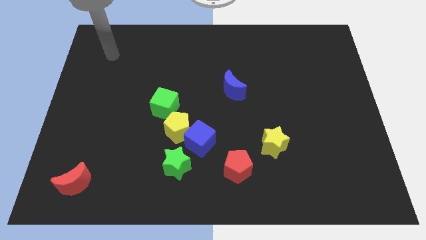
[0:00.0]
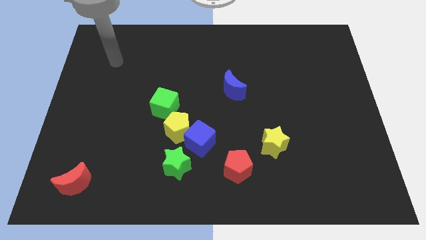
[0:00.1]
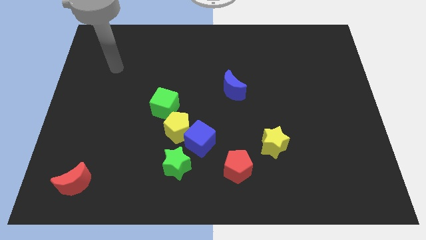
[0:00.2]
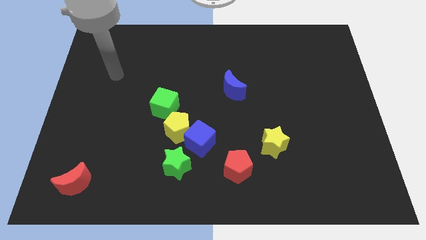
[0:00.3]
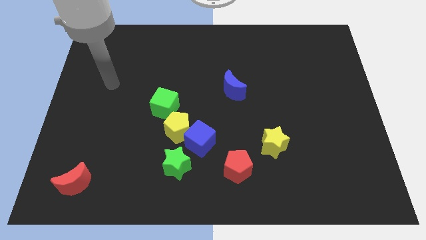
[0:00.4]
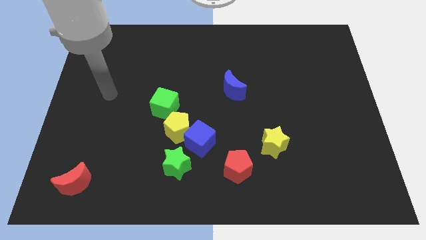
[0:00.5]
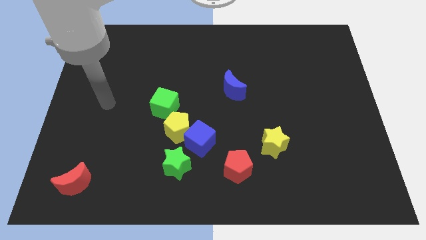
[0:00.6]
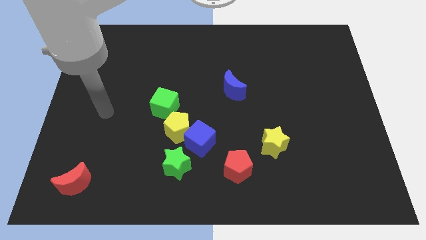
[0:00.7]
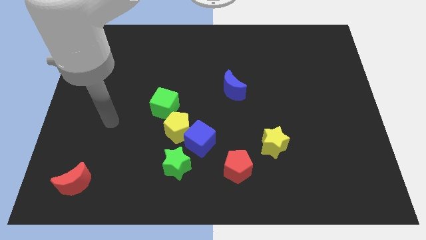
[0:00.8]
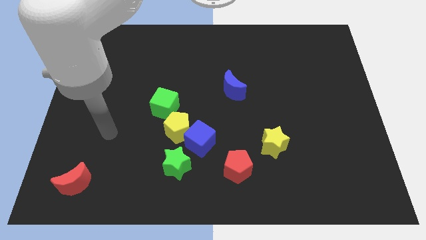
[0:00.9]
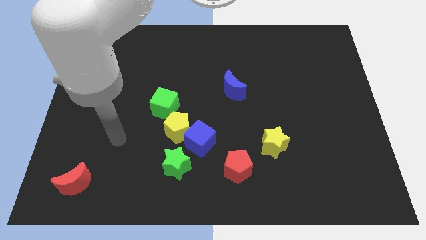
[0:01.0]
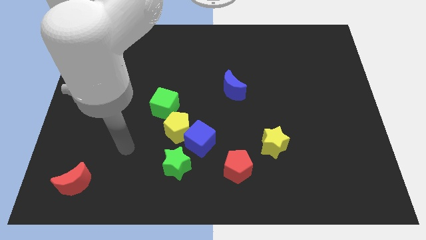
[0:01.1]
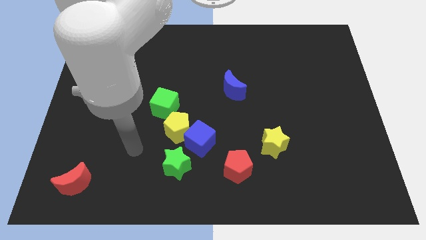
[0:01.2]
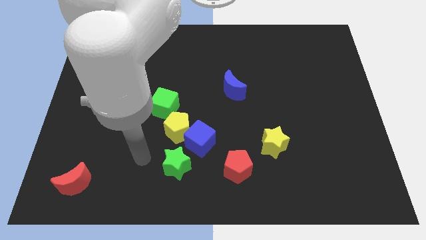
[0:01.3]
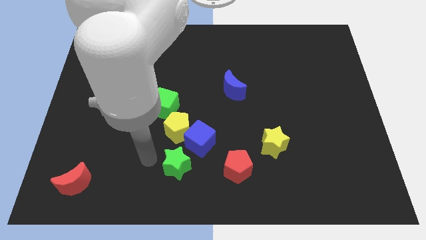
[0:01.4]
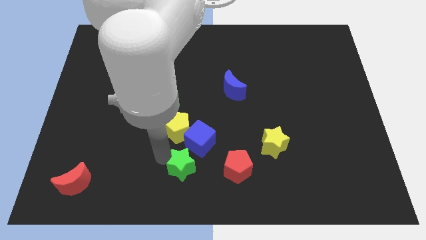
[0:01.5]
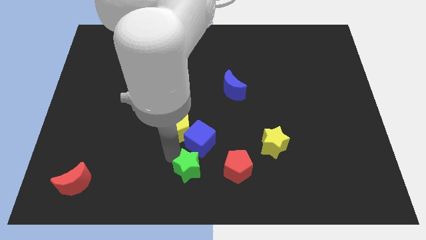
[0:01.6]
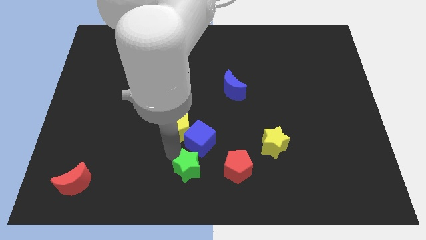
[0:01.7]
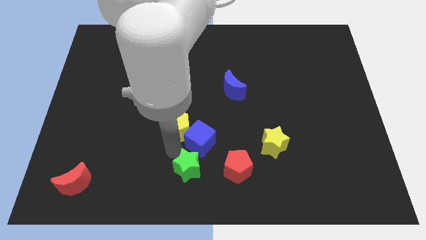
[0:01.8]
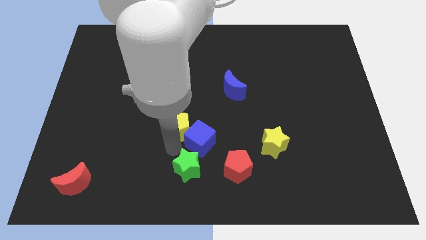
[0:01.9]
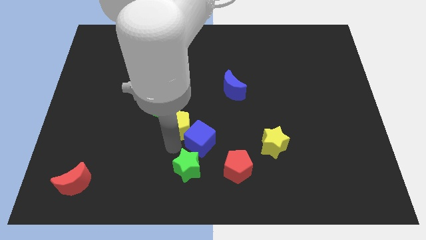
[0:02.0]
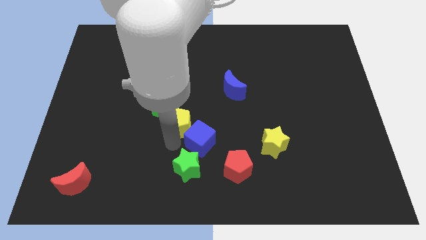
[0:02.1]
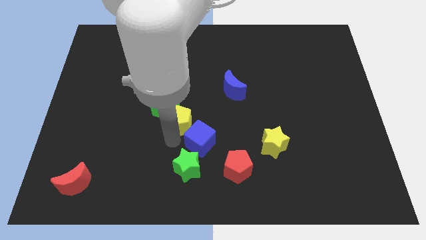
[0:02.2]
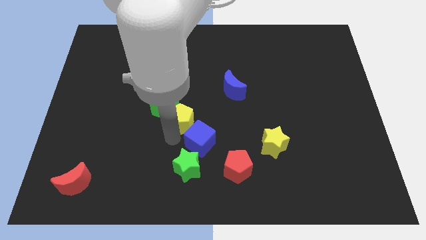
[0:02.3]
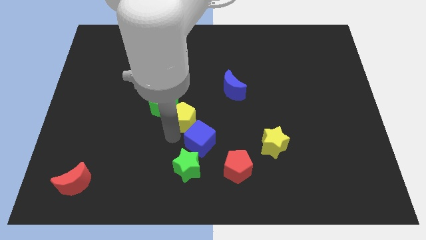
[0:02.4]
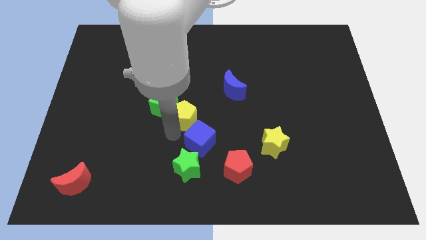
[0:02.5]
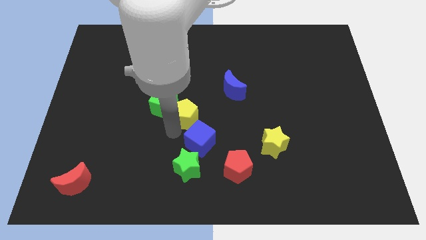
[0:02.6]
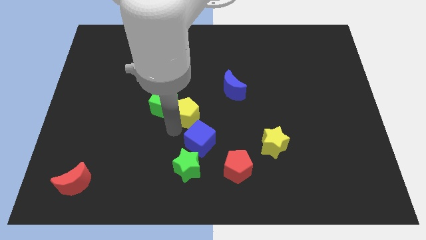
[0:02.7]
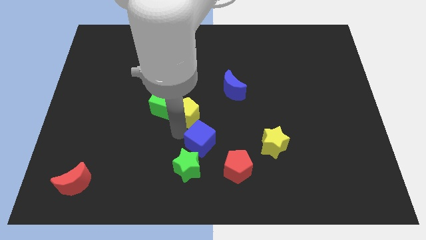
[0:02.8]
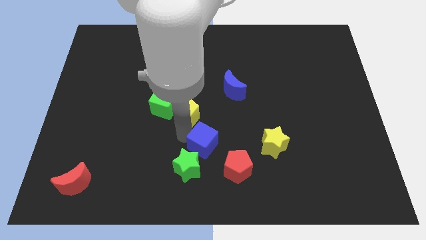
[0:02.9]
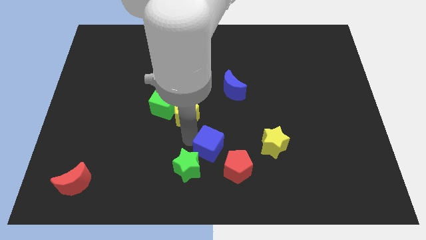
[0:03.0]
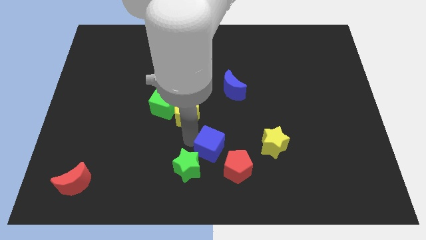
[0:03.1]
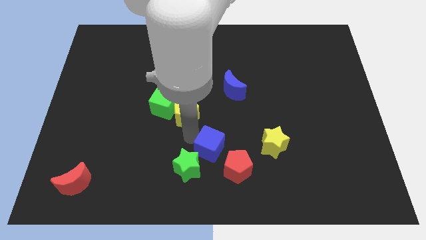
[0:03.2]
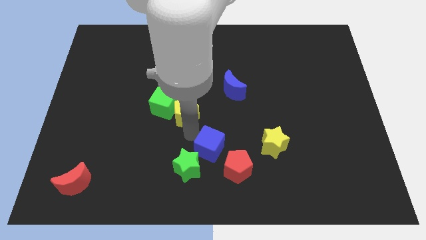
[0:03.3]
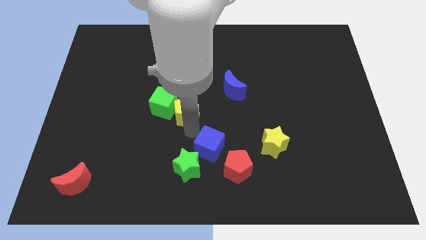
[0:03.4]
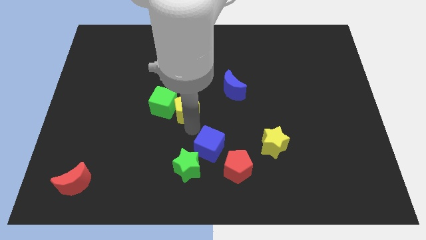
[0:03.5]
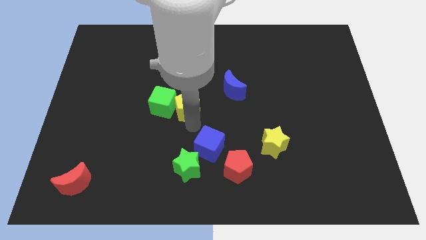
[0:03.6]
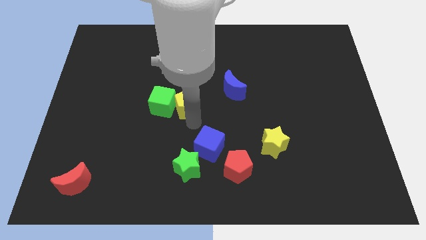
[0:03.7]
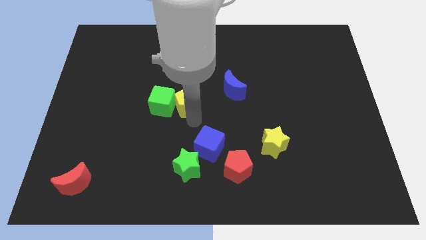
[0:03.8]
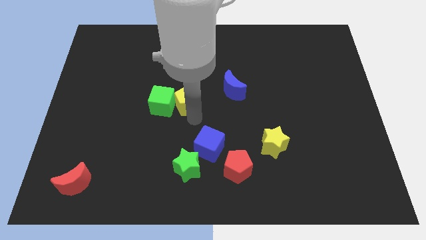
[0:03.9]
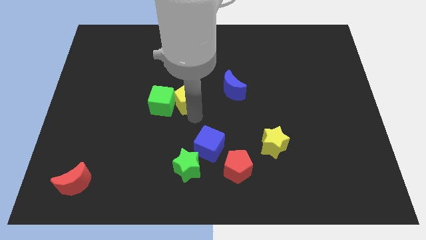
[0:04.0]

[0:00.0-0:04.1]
move the yellow pentagon away from the blue cube, green cube, and green star

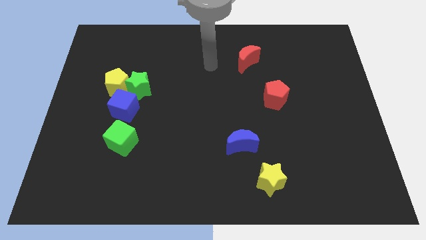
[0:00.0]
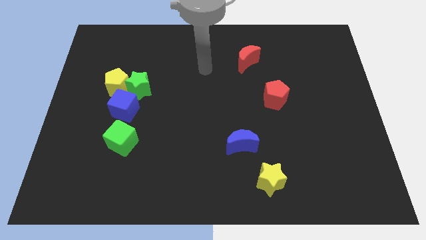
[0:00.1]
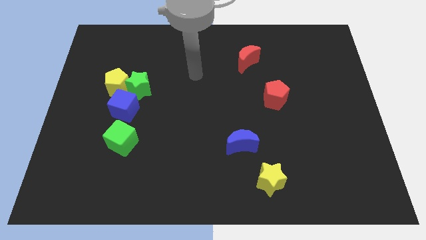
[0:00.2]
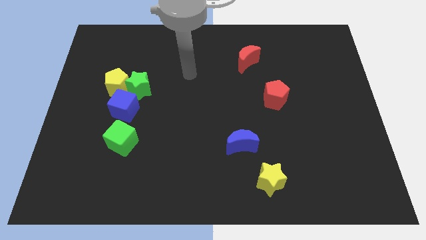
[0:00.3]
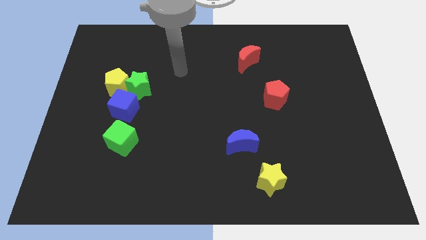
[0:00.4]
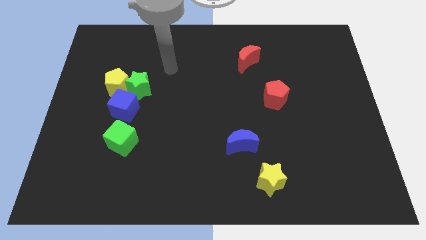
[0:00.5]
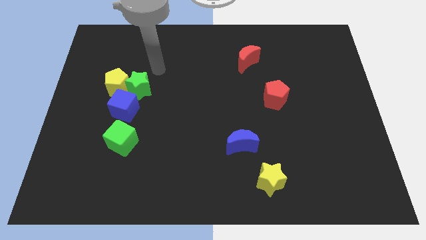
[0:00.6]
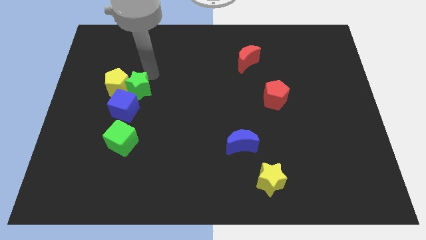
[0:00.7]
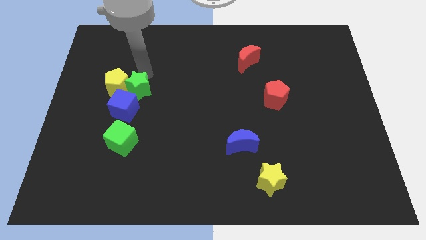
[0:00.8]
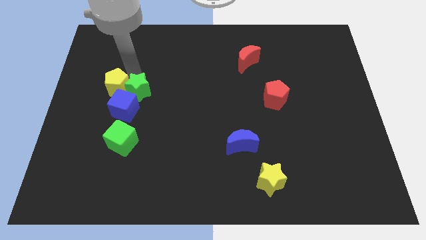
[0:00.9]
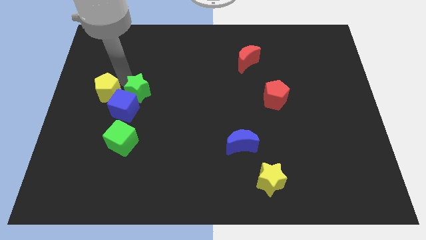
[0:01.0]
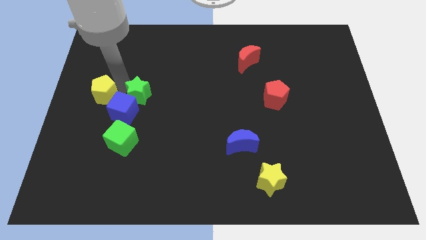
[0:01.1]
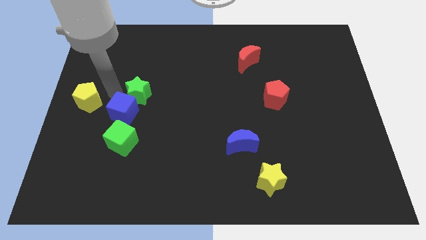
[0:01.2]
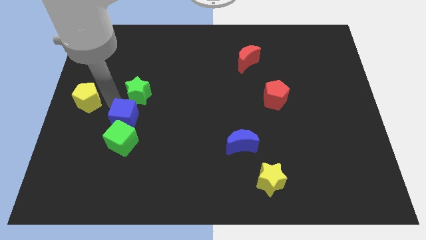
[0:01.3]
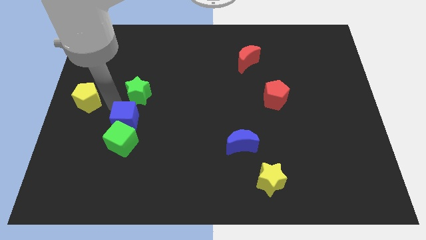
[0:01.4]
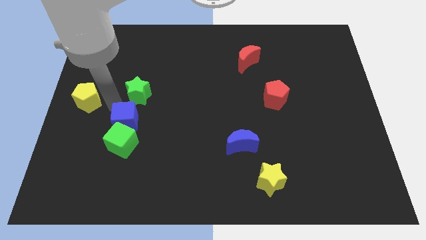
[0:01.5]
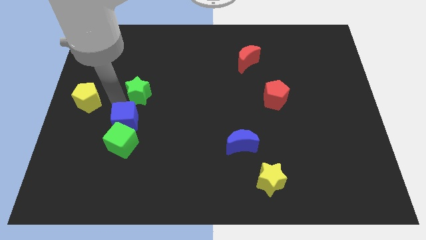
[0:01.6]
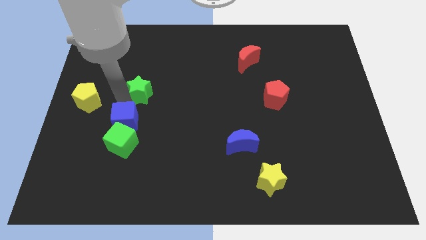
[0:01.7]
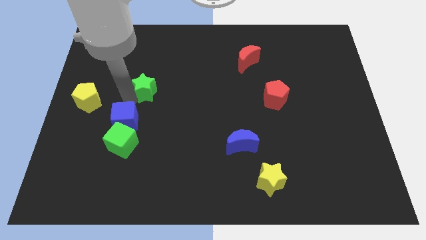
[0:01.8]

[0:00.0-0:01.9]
move the green star away from the yellow pentagon and blue cube

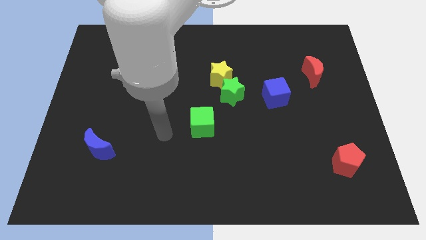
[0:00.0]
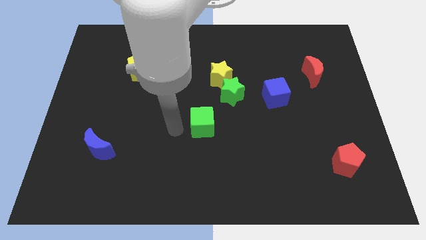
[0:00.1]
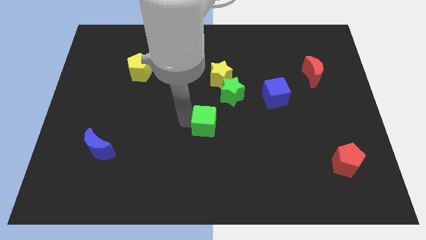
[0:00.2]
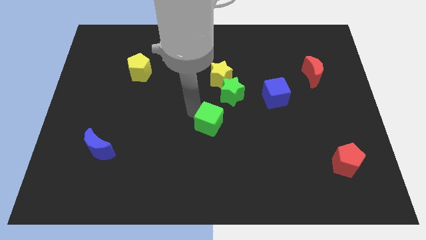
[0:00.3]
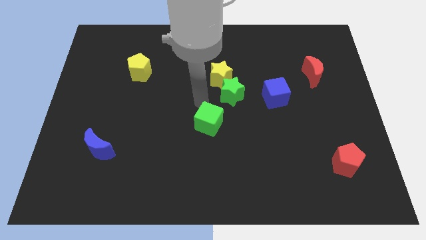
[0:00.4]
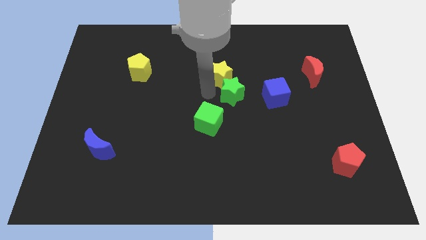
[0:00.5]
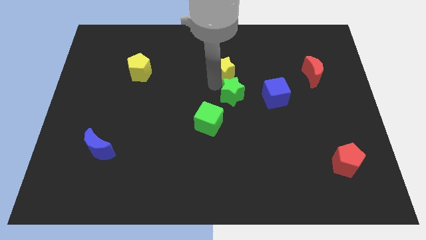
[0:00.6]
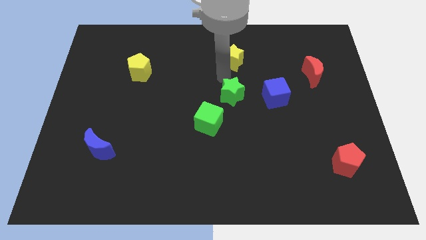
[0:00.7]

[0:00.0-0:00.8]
move the green star away from the yellow star

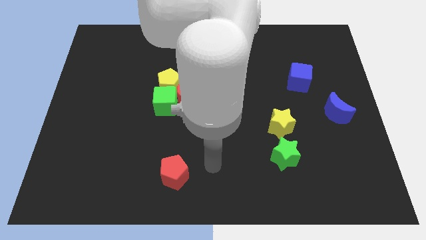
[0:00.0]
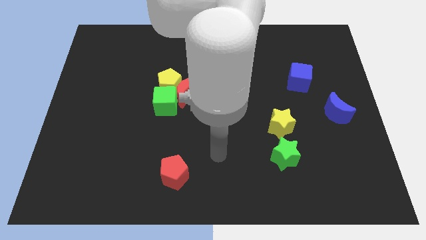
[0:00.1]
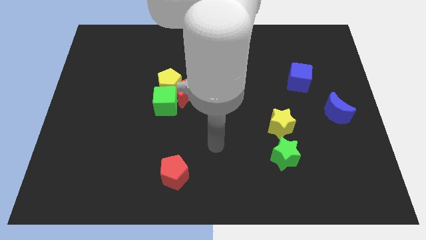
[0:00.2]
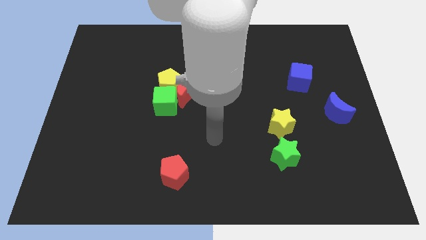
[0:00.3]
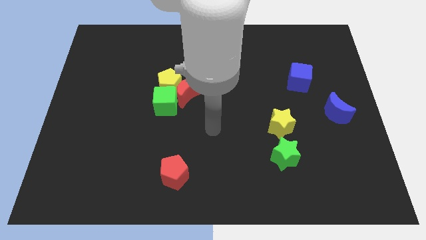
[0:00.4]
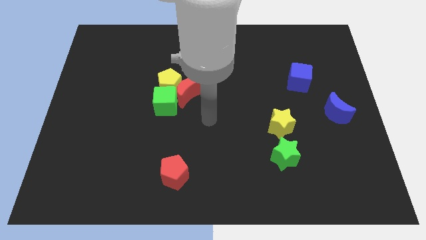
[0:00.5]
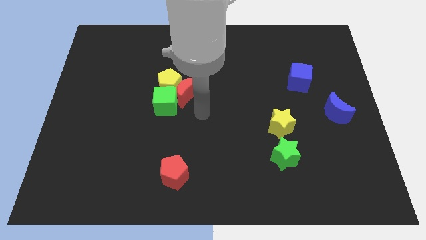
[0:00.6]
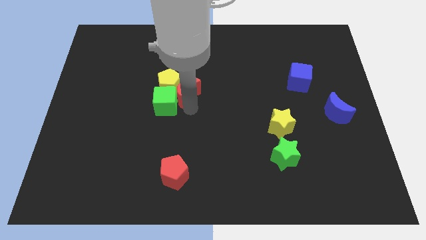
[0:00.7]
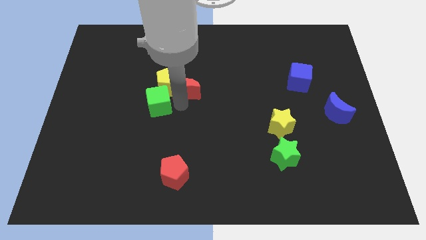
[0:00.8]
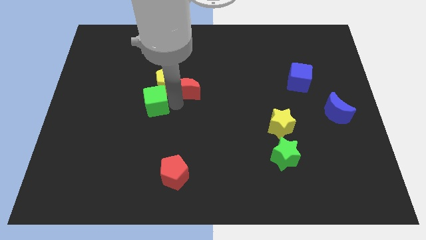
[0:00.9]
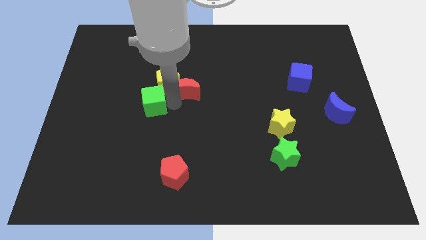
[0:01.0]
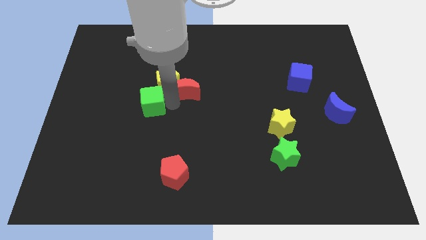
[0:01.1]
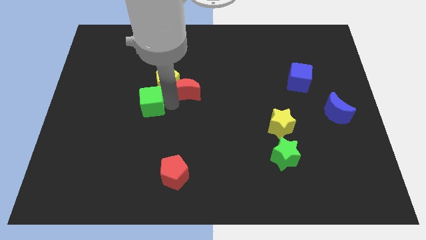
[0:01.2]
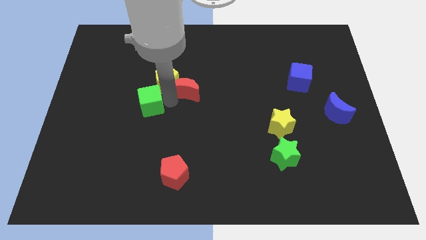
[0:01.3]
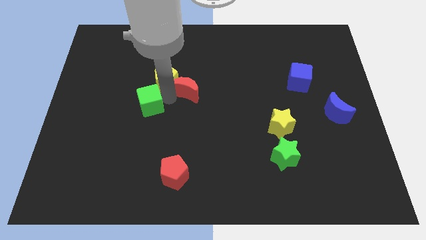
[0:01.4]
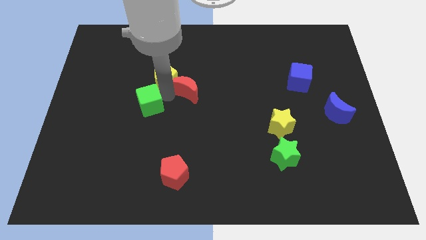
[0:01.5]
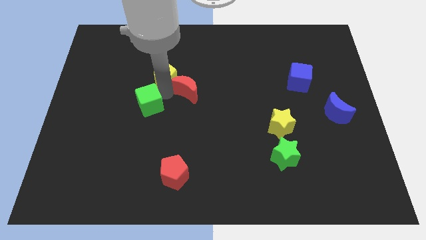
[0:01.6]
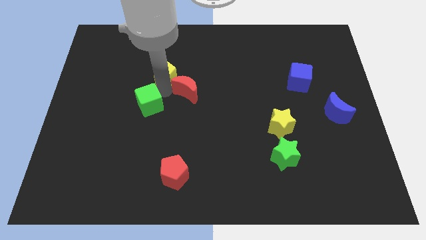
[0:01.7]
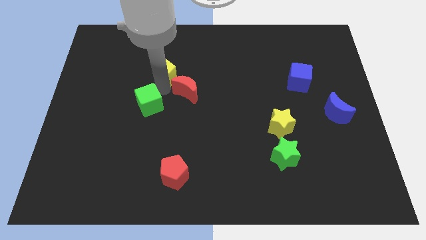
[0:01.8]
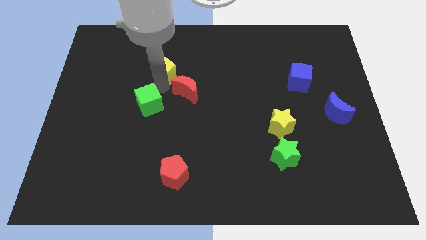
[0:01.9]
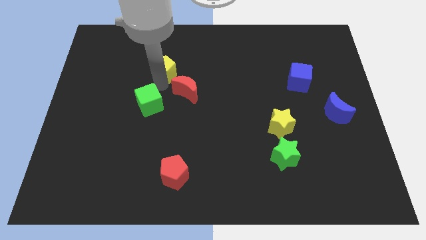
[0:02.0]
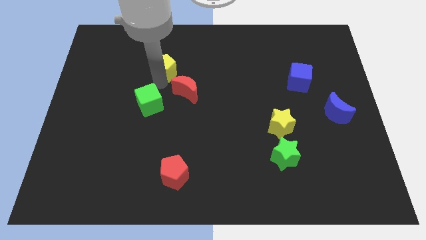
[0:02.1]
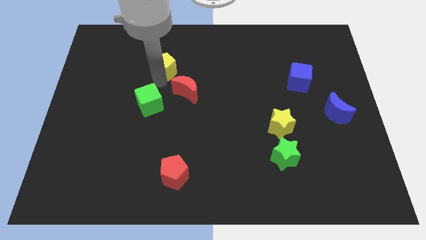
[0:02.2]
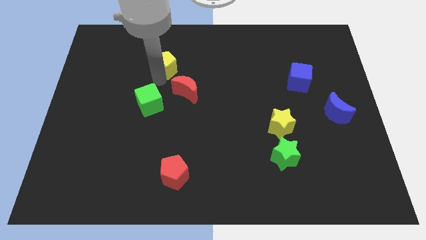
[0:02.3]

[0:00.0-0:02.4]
pull the yellow pentagon apart from the red moon and green cube

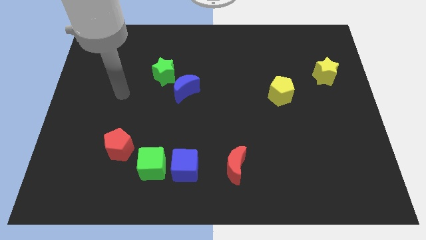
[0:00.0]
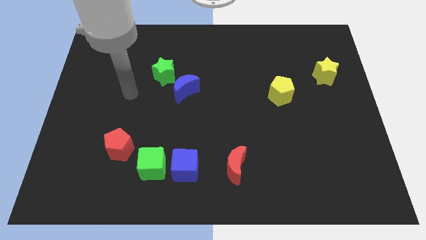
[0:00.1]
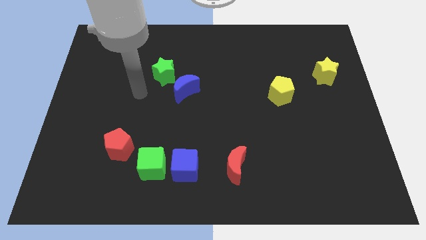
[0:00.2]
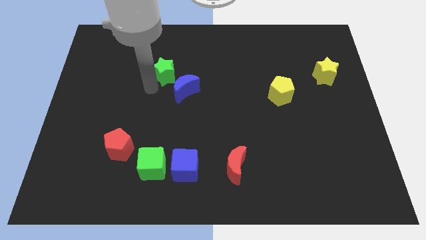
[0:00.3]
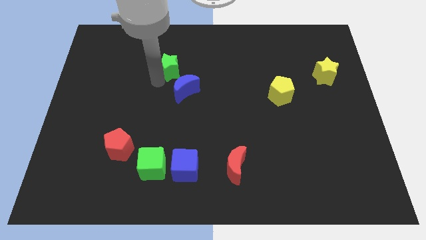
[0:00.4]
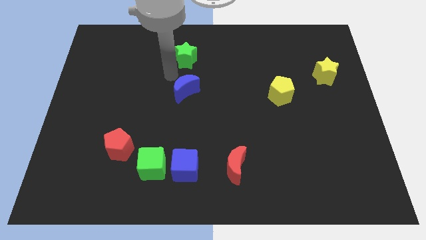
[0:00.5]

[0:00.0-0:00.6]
move the blue moon away from the green star
